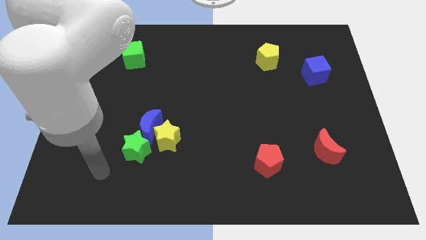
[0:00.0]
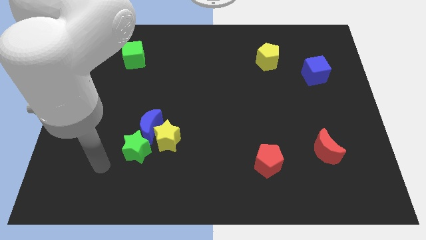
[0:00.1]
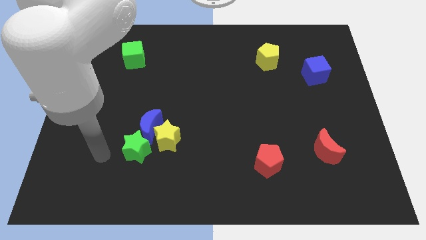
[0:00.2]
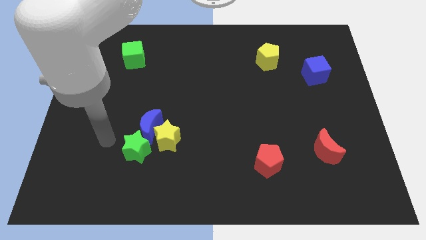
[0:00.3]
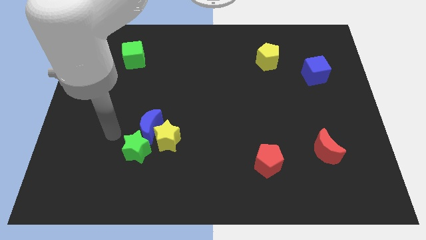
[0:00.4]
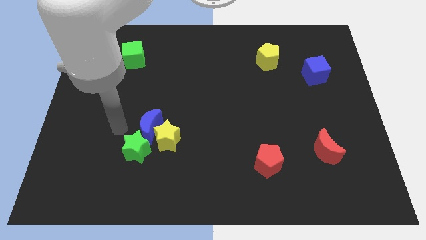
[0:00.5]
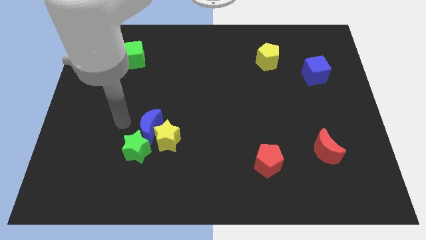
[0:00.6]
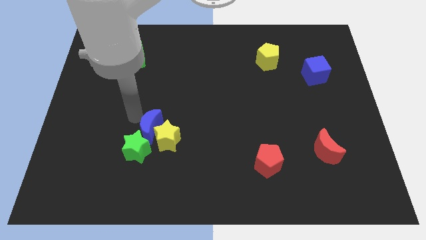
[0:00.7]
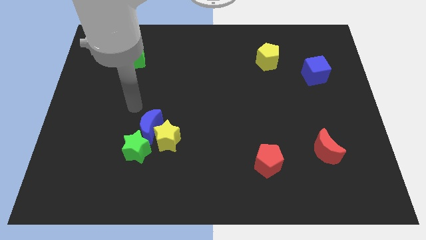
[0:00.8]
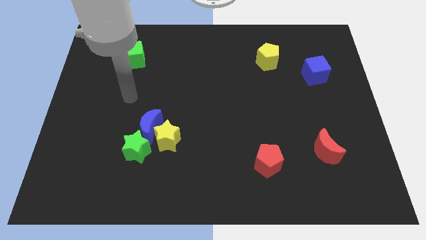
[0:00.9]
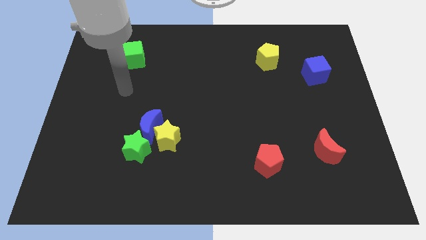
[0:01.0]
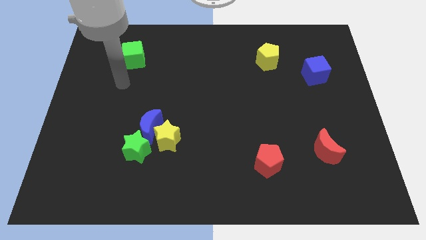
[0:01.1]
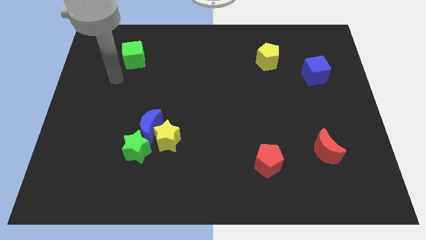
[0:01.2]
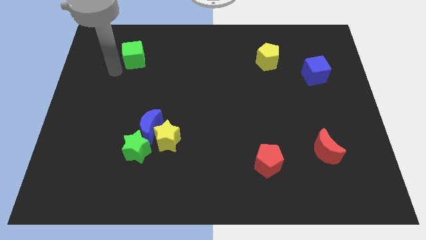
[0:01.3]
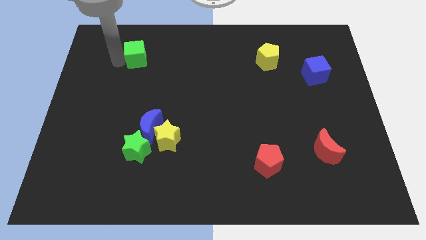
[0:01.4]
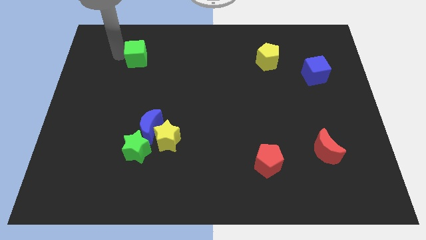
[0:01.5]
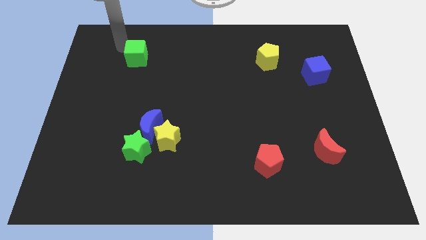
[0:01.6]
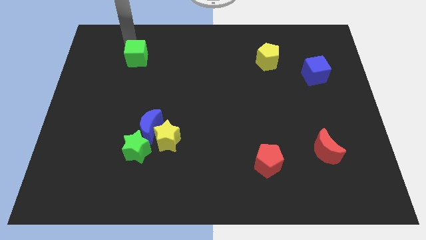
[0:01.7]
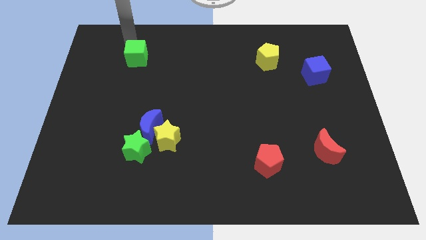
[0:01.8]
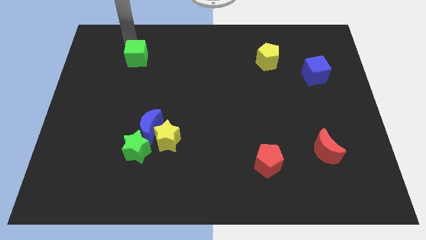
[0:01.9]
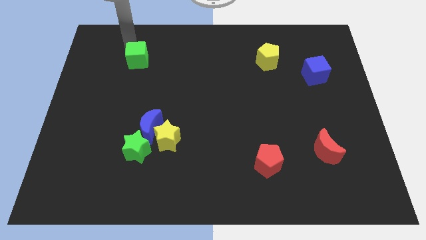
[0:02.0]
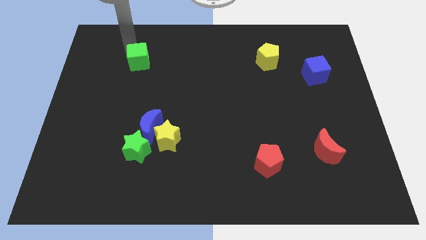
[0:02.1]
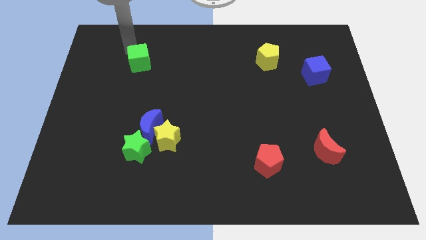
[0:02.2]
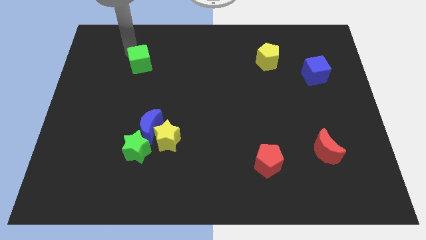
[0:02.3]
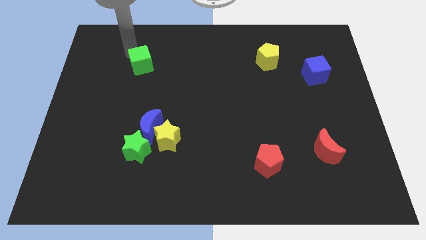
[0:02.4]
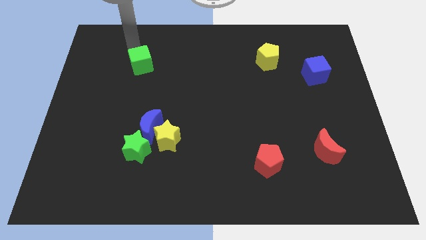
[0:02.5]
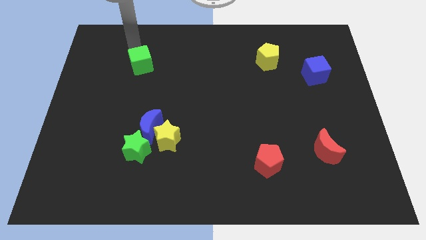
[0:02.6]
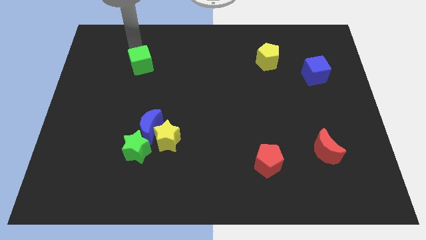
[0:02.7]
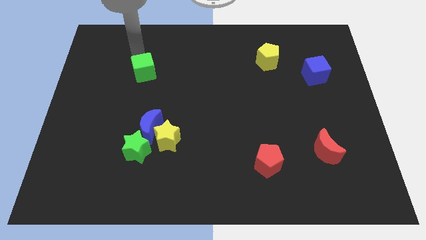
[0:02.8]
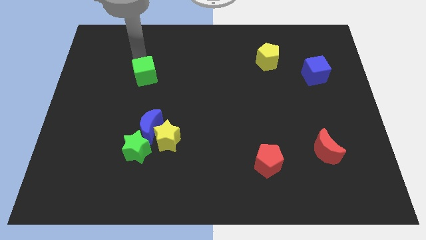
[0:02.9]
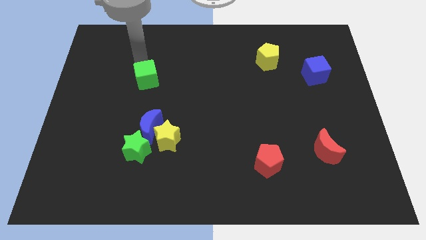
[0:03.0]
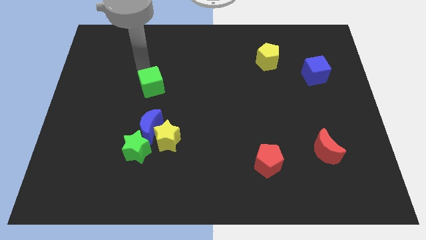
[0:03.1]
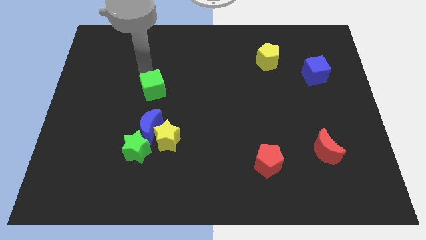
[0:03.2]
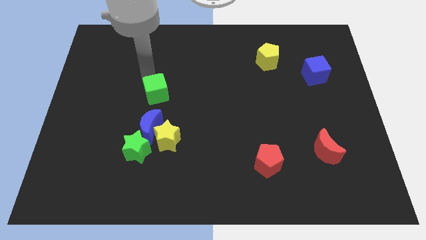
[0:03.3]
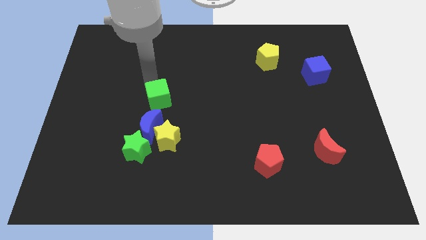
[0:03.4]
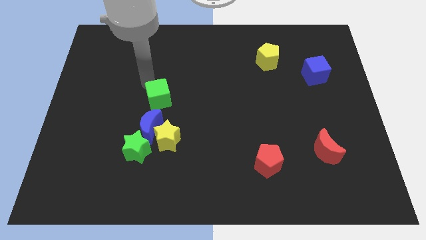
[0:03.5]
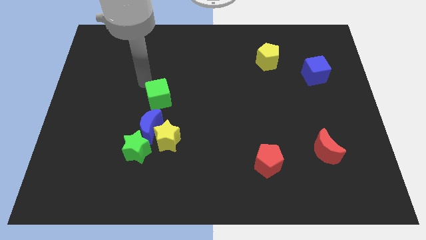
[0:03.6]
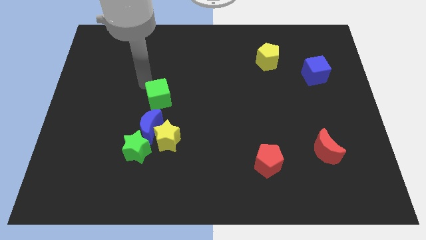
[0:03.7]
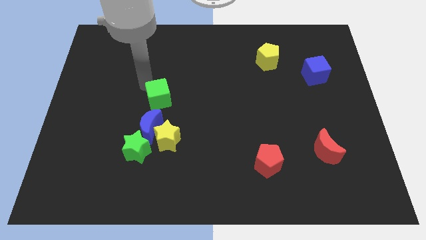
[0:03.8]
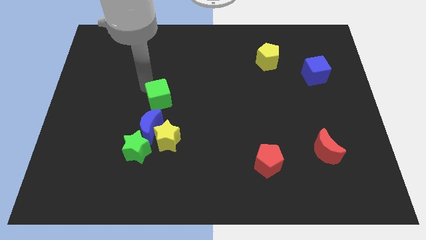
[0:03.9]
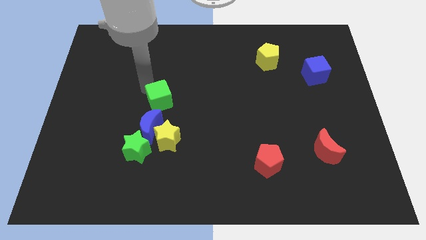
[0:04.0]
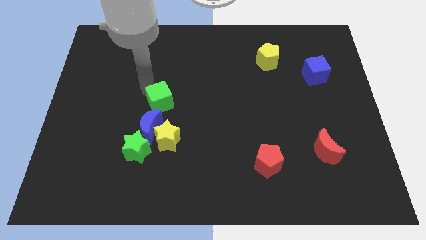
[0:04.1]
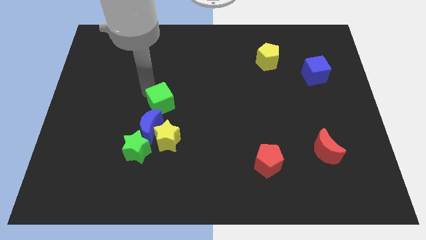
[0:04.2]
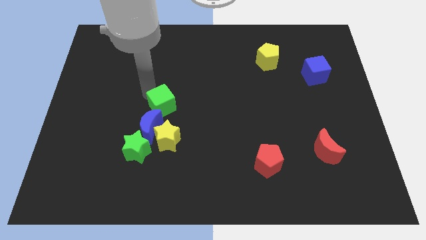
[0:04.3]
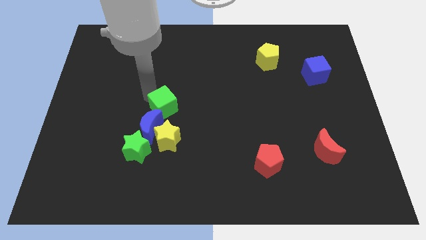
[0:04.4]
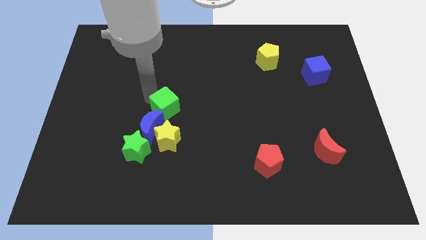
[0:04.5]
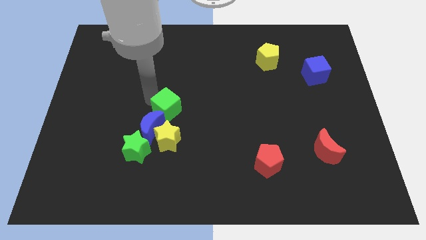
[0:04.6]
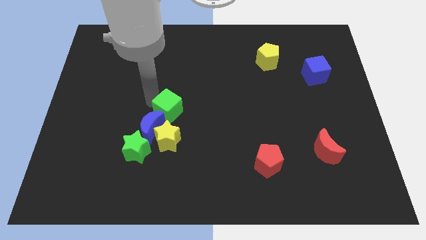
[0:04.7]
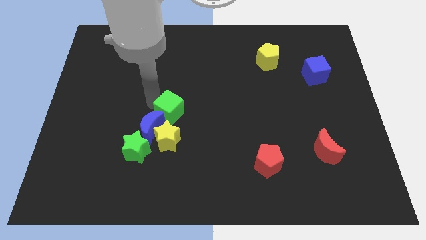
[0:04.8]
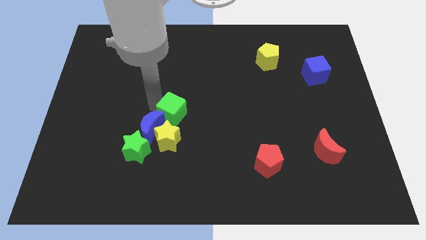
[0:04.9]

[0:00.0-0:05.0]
slide the green cube just right of the blue moon

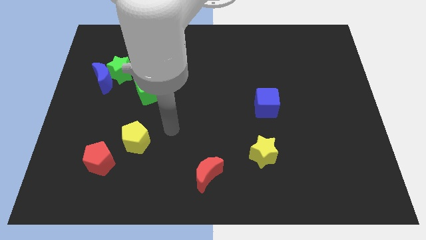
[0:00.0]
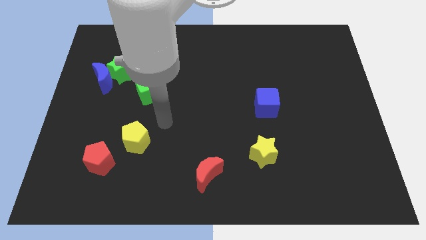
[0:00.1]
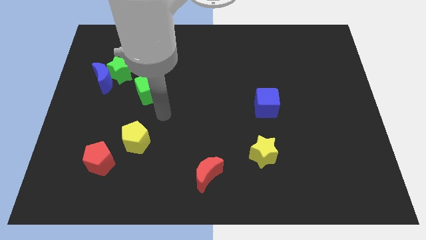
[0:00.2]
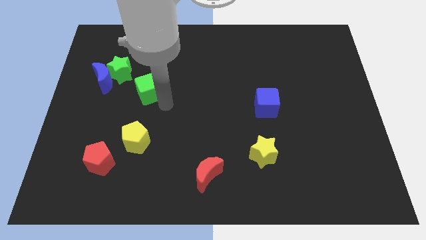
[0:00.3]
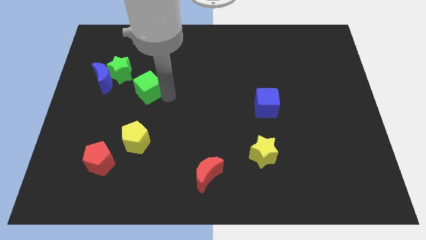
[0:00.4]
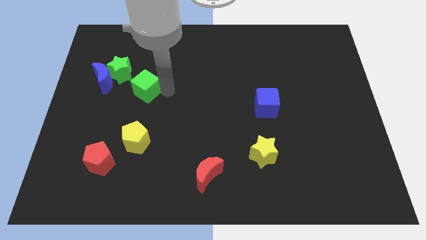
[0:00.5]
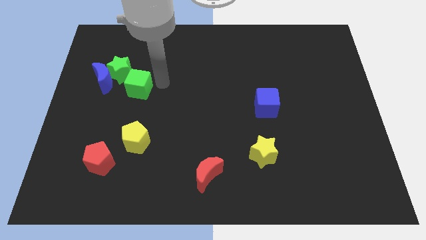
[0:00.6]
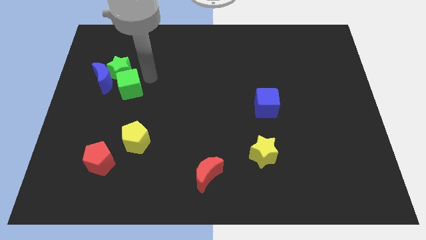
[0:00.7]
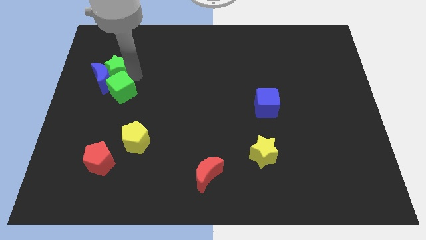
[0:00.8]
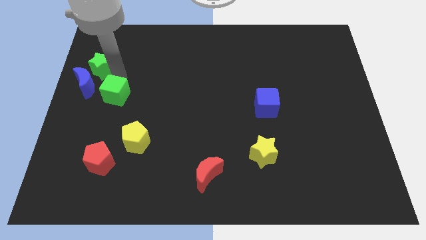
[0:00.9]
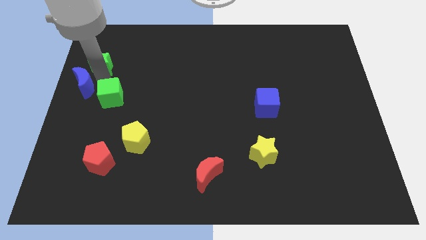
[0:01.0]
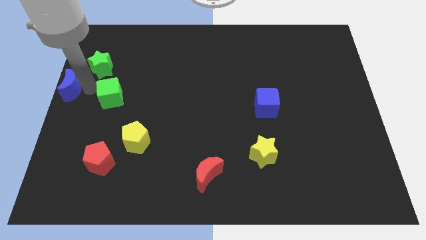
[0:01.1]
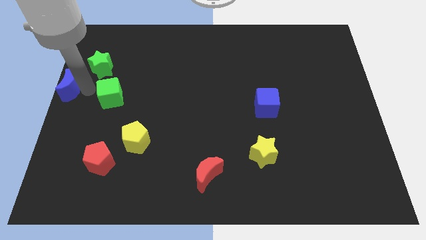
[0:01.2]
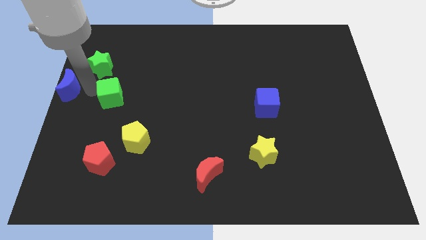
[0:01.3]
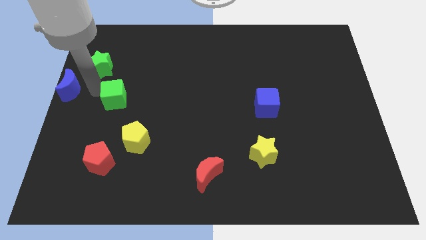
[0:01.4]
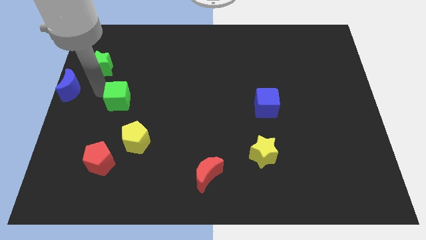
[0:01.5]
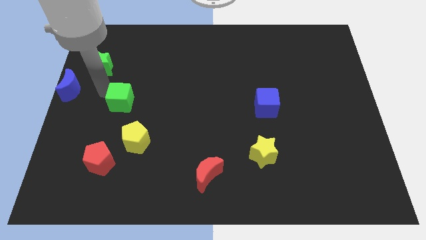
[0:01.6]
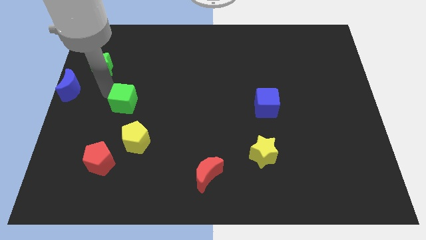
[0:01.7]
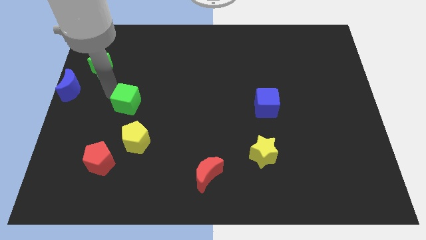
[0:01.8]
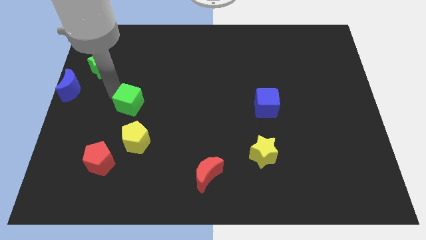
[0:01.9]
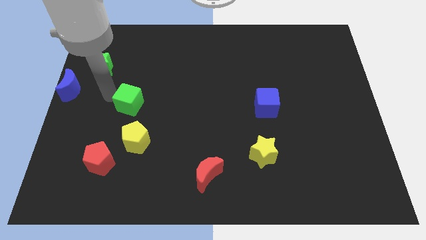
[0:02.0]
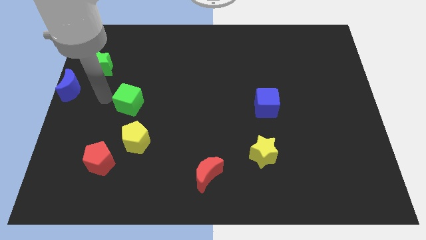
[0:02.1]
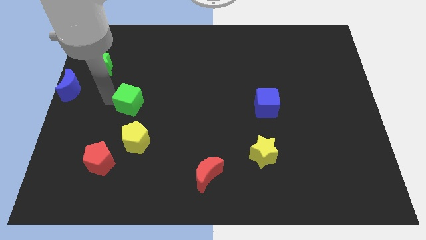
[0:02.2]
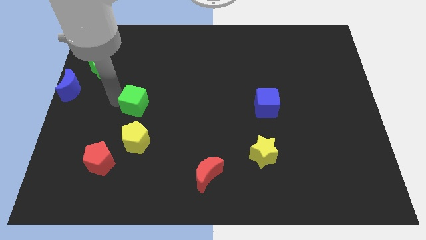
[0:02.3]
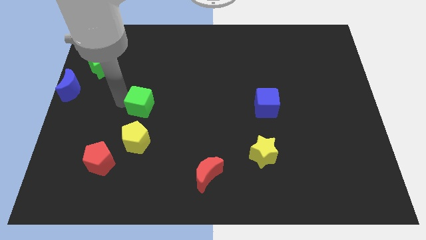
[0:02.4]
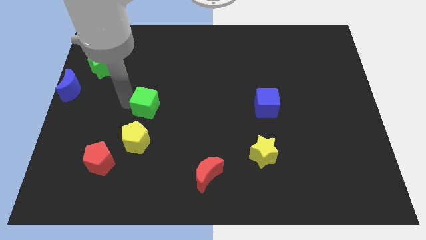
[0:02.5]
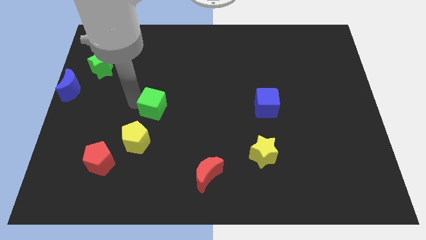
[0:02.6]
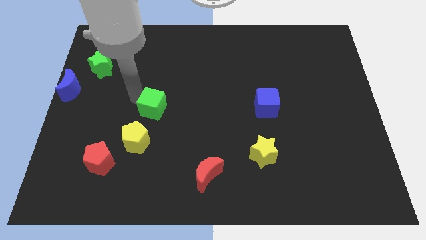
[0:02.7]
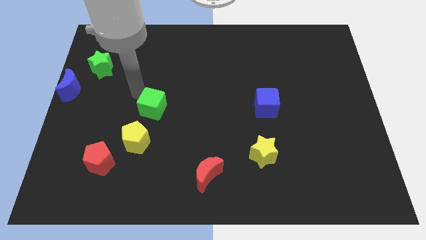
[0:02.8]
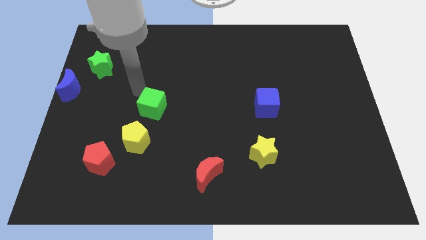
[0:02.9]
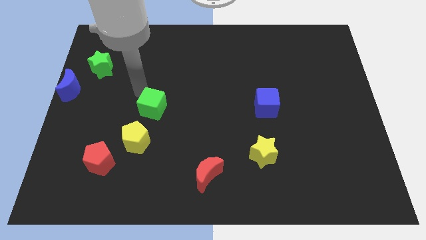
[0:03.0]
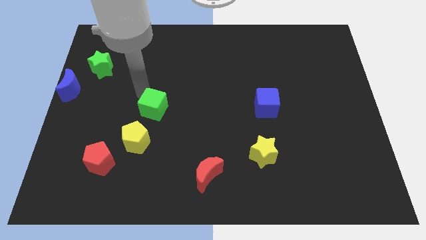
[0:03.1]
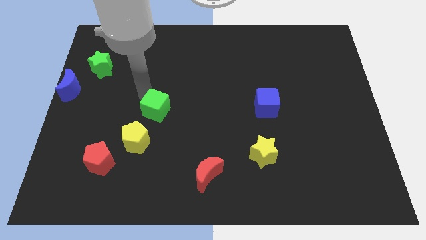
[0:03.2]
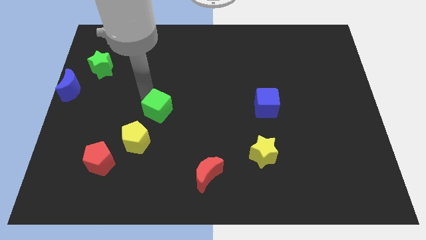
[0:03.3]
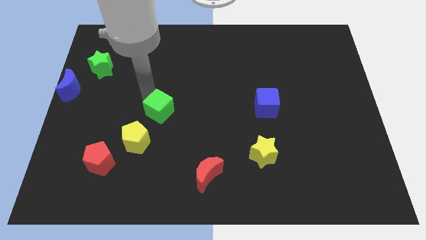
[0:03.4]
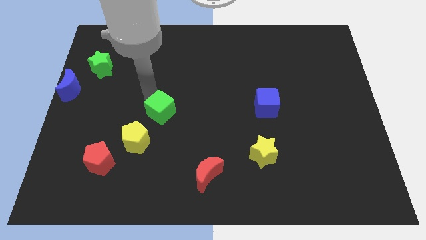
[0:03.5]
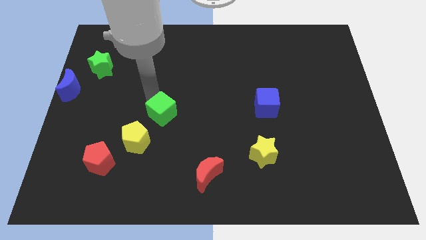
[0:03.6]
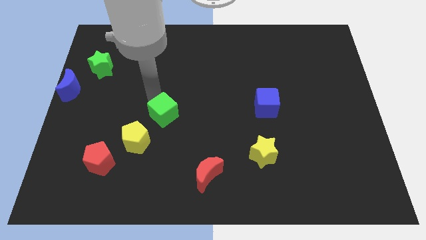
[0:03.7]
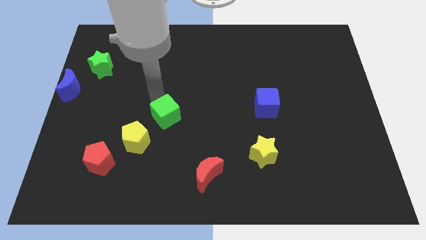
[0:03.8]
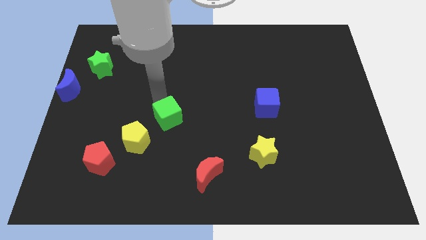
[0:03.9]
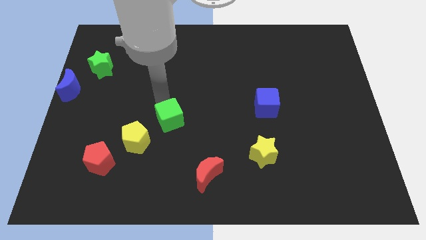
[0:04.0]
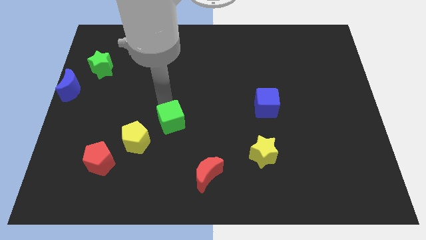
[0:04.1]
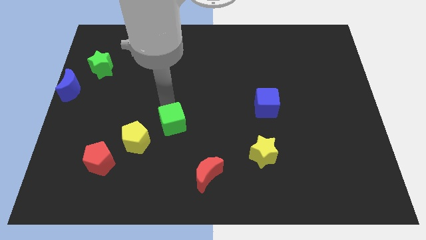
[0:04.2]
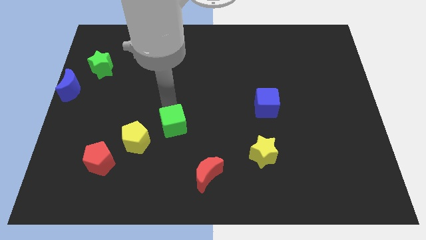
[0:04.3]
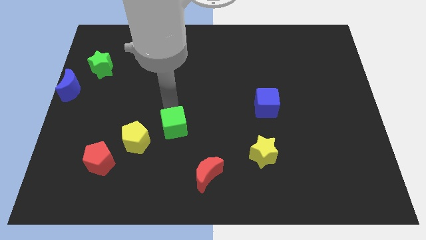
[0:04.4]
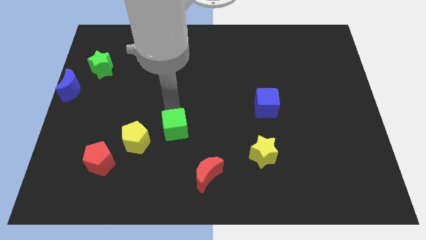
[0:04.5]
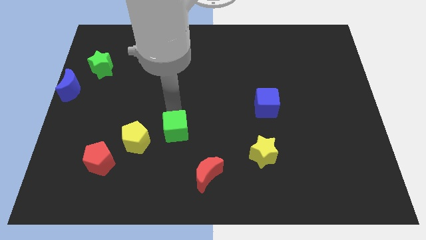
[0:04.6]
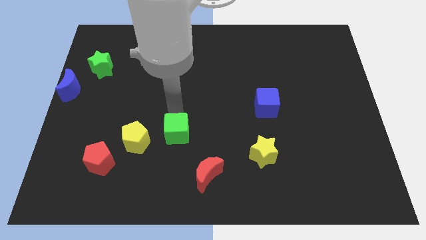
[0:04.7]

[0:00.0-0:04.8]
push the green cube to the top left side of the red moon
